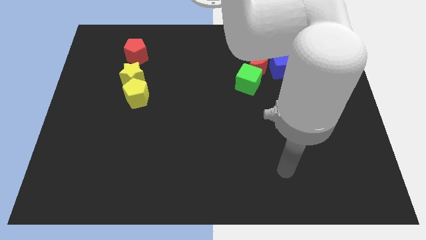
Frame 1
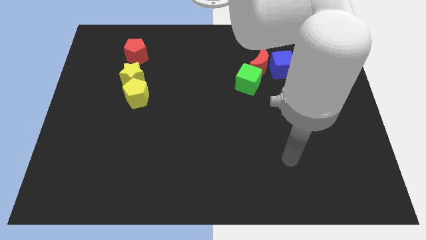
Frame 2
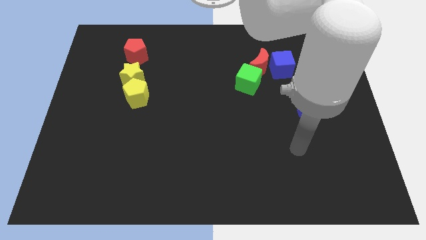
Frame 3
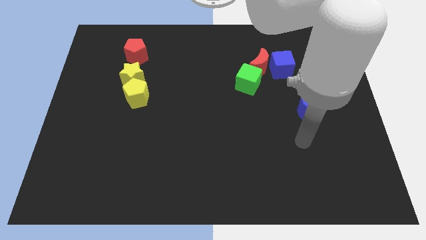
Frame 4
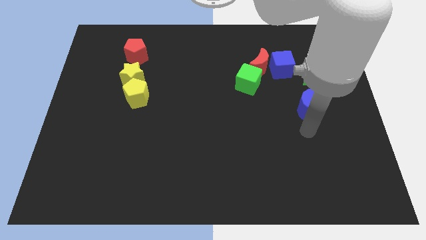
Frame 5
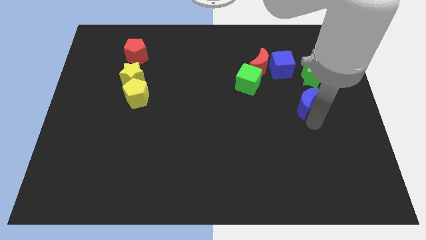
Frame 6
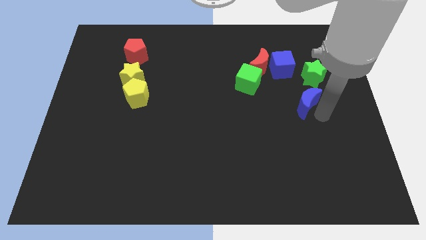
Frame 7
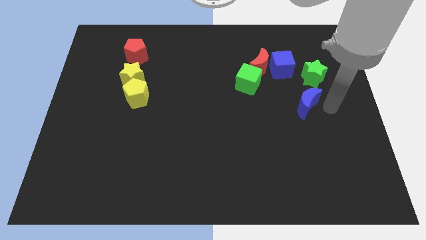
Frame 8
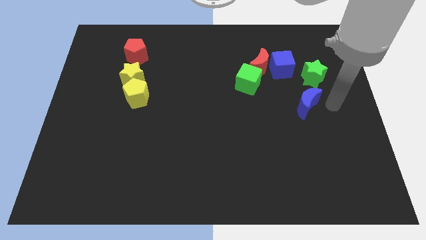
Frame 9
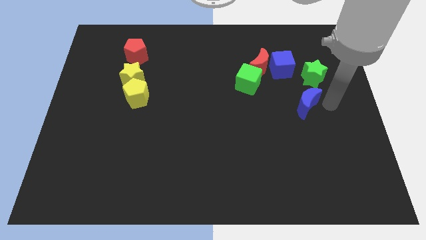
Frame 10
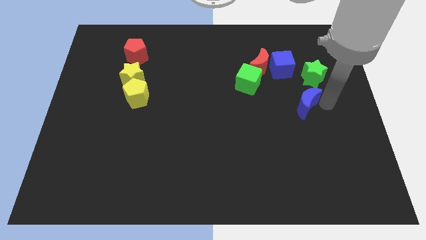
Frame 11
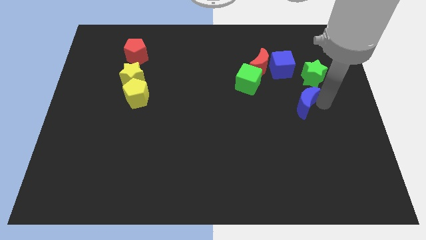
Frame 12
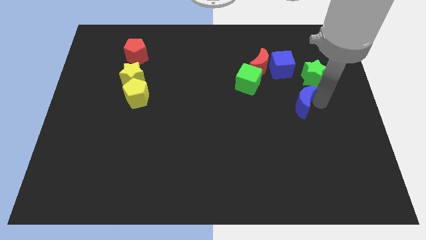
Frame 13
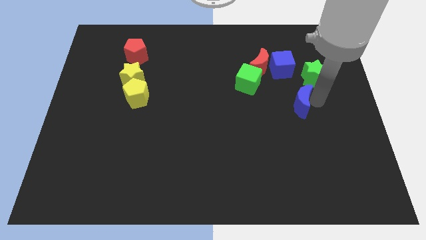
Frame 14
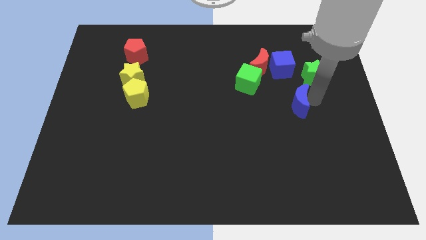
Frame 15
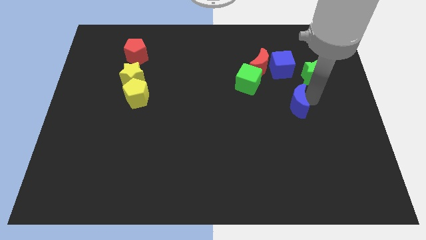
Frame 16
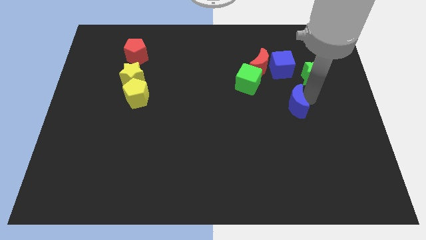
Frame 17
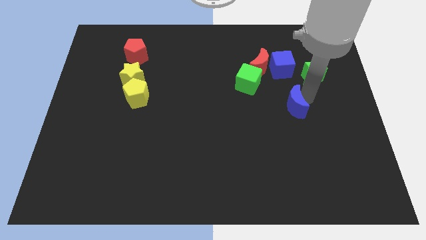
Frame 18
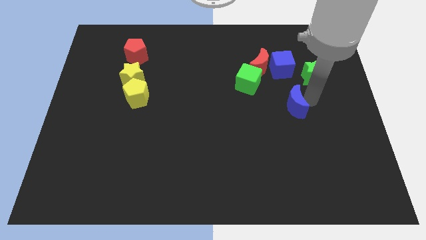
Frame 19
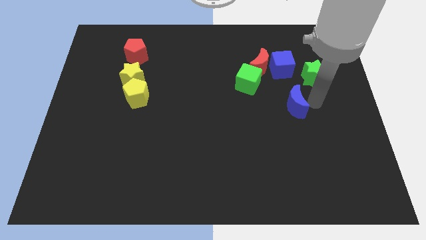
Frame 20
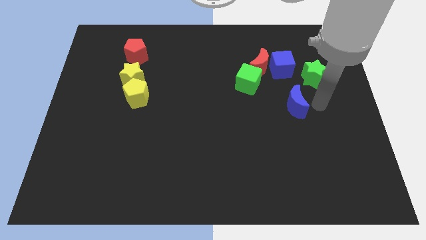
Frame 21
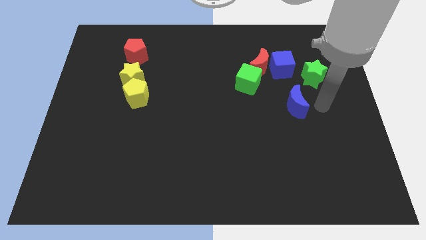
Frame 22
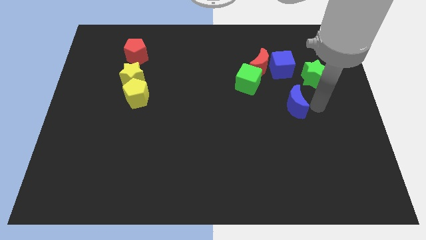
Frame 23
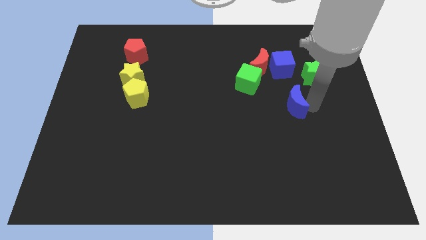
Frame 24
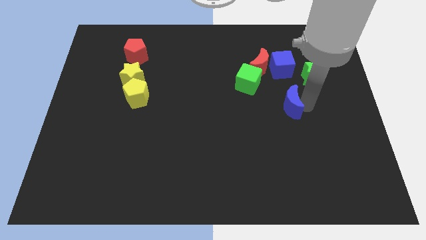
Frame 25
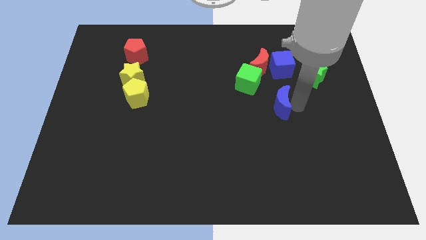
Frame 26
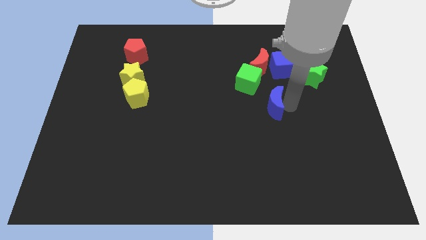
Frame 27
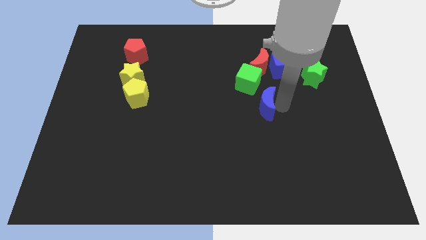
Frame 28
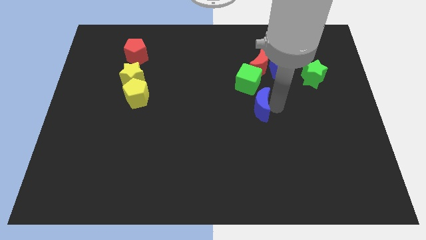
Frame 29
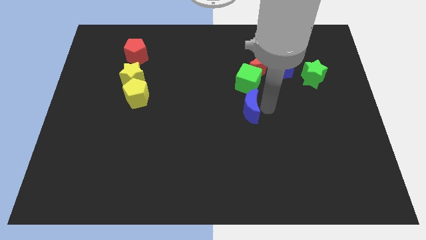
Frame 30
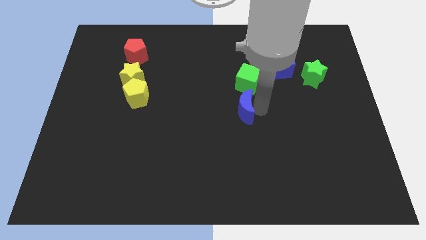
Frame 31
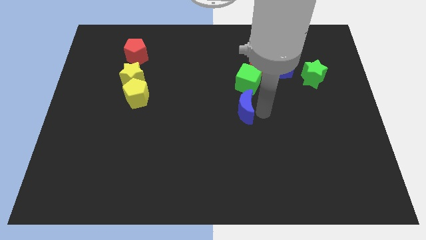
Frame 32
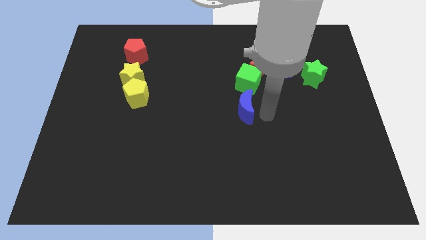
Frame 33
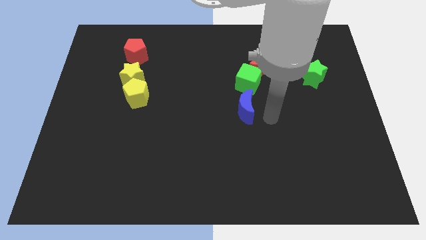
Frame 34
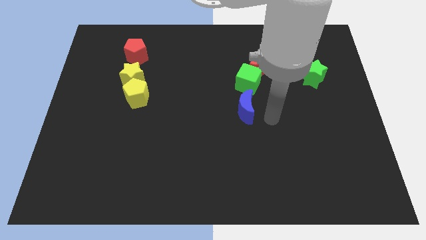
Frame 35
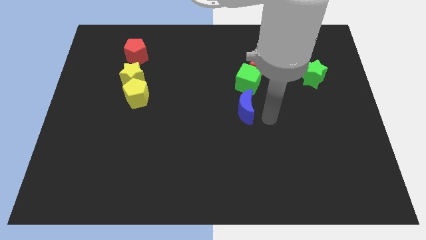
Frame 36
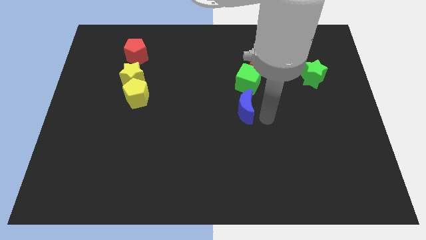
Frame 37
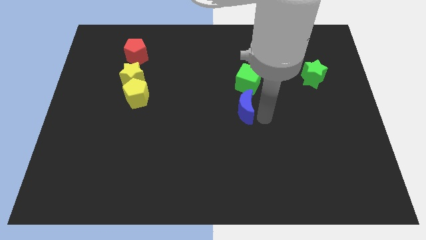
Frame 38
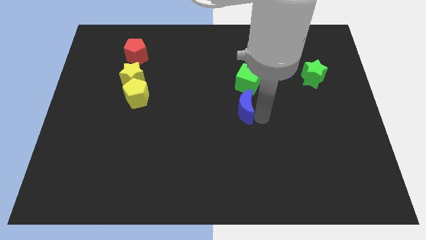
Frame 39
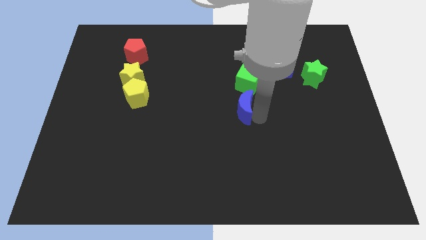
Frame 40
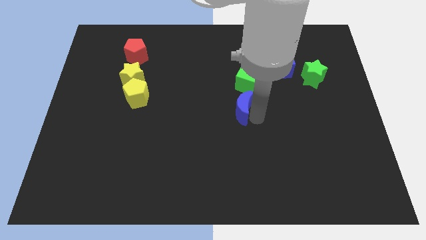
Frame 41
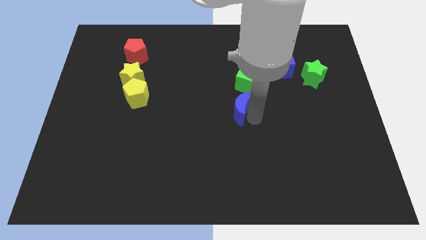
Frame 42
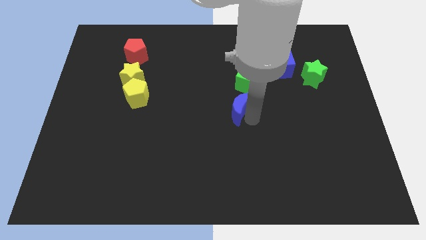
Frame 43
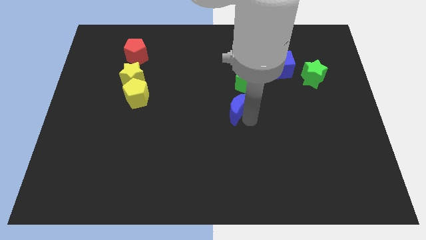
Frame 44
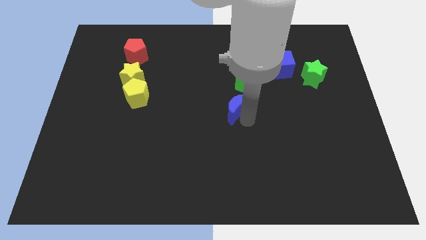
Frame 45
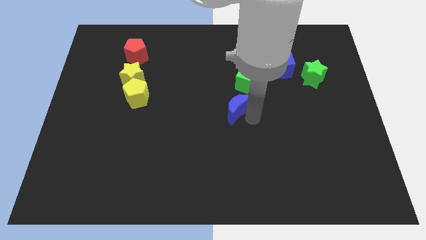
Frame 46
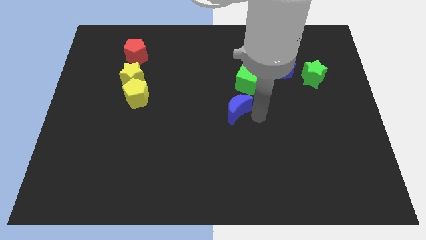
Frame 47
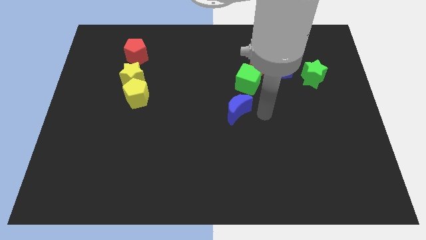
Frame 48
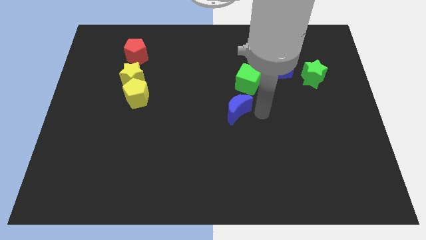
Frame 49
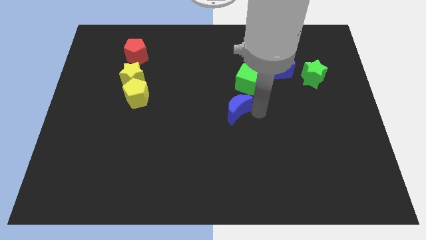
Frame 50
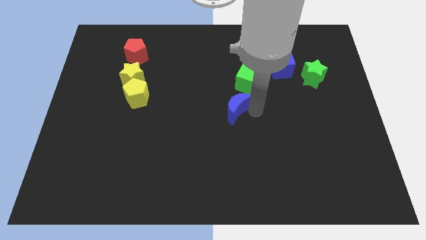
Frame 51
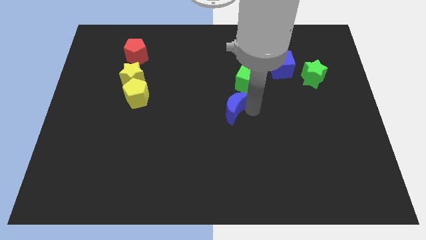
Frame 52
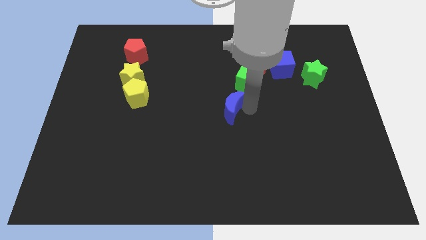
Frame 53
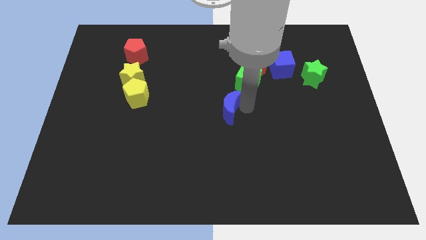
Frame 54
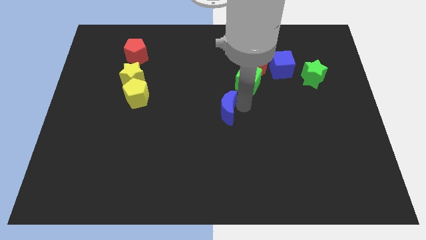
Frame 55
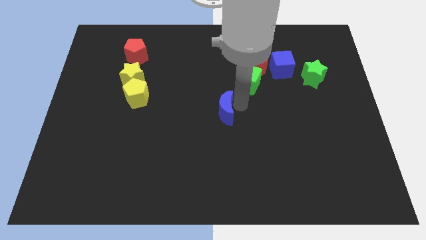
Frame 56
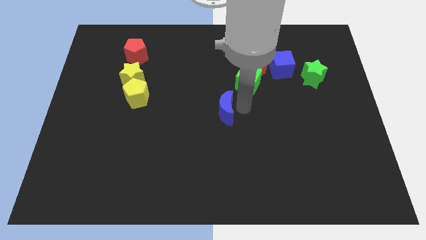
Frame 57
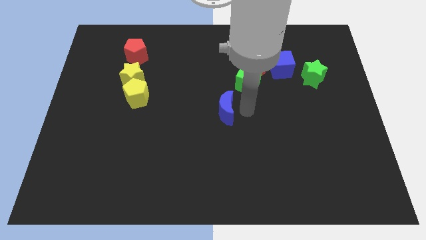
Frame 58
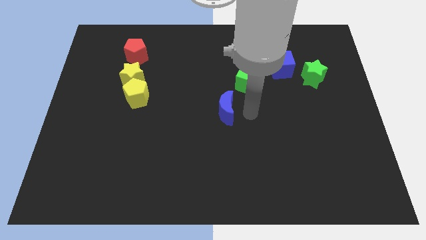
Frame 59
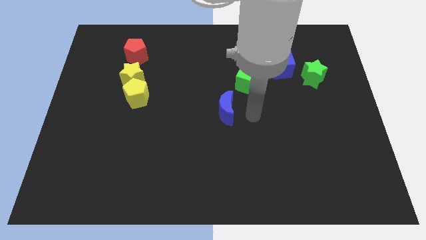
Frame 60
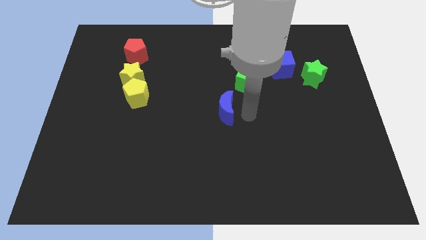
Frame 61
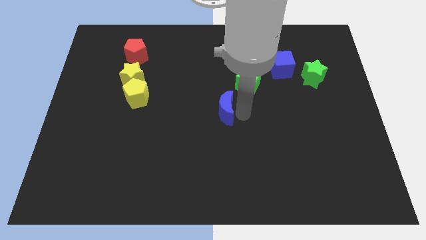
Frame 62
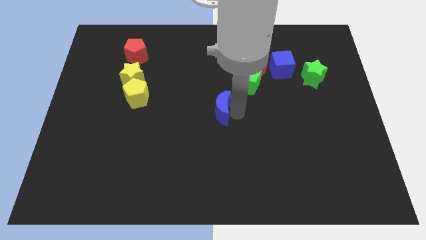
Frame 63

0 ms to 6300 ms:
push the blue moon to the left

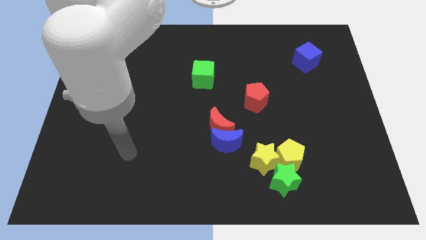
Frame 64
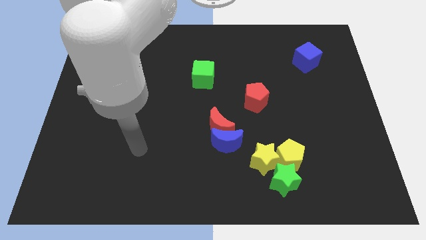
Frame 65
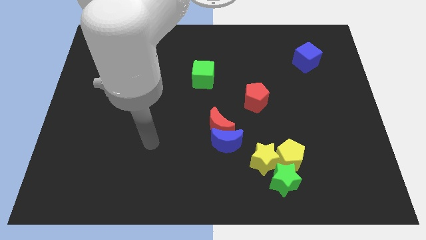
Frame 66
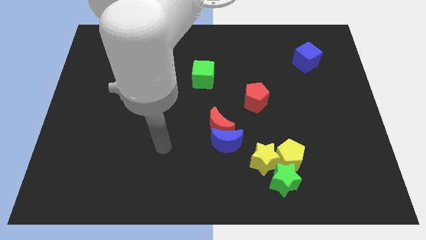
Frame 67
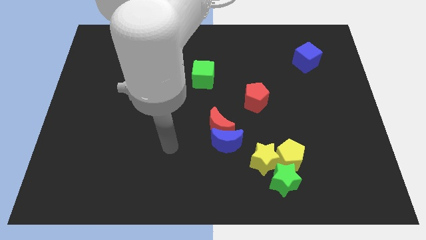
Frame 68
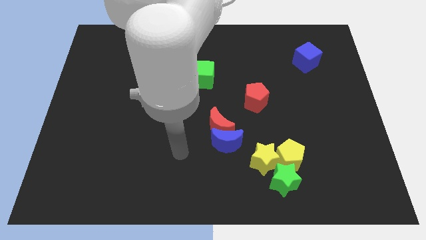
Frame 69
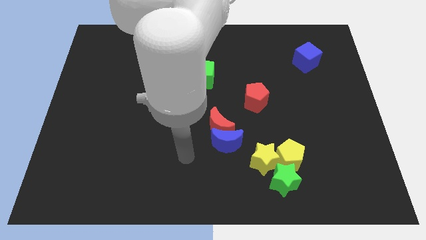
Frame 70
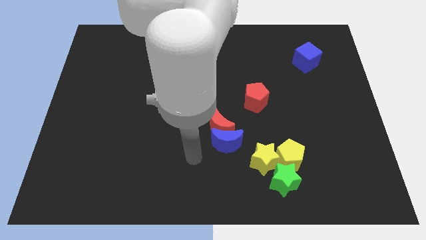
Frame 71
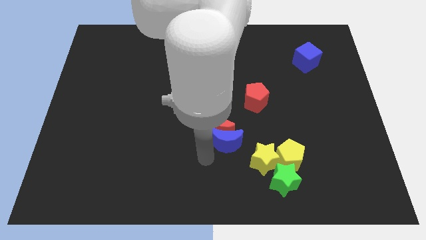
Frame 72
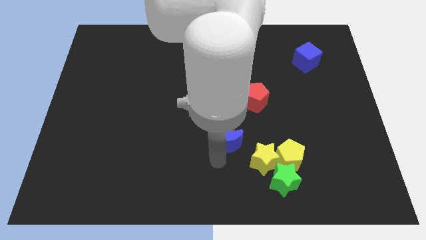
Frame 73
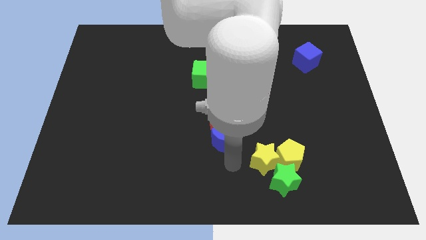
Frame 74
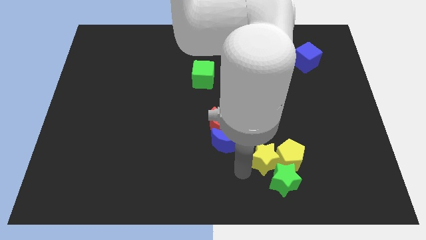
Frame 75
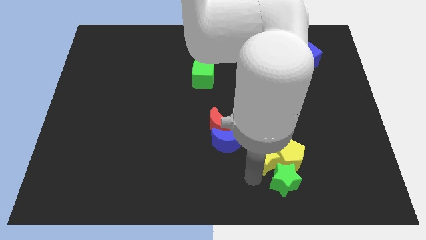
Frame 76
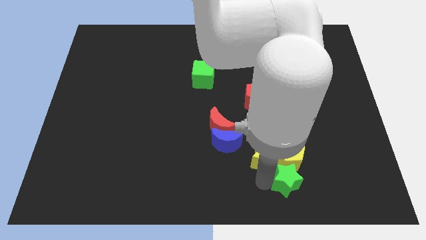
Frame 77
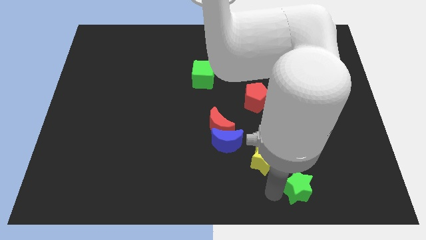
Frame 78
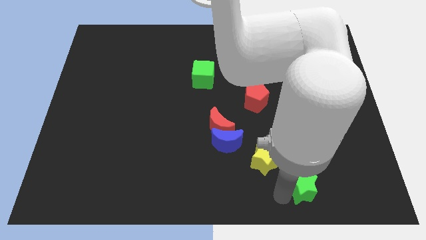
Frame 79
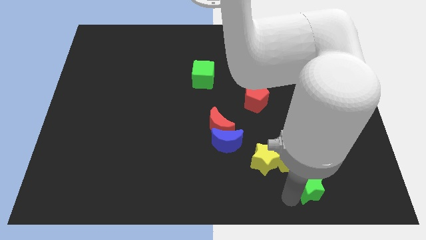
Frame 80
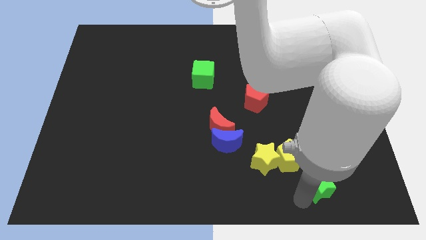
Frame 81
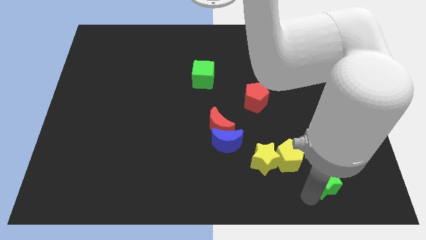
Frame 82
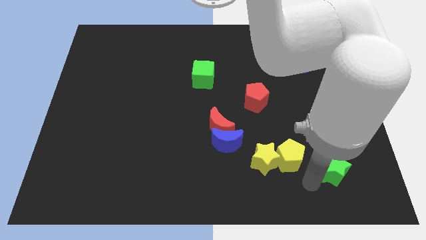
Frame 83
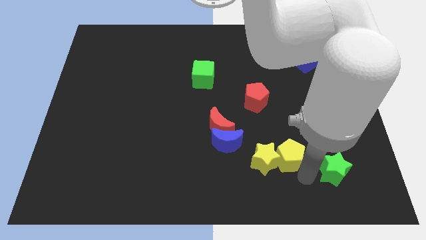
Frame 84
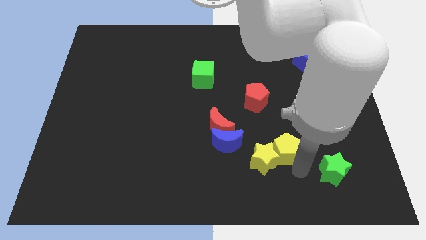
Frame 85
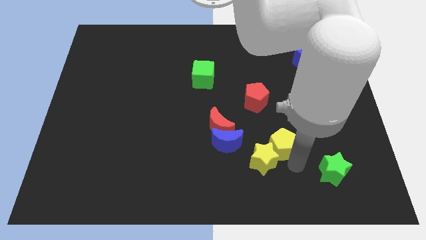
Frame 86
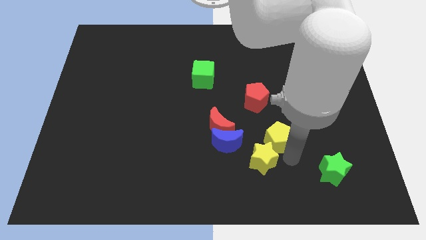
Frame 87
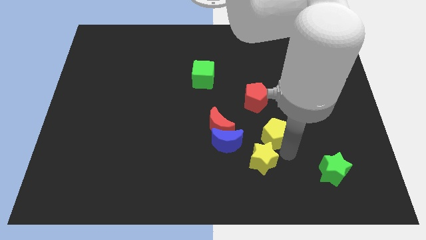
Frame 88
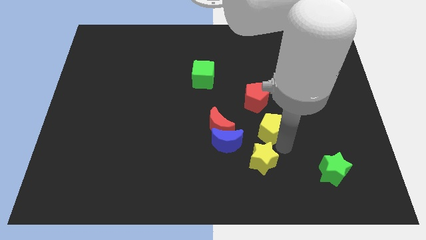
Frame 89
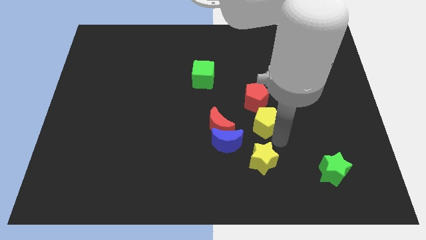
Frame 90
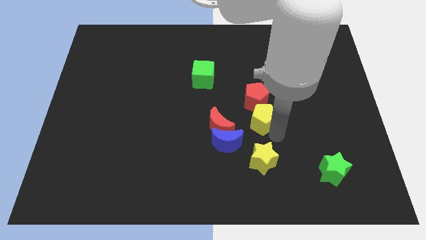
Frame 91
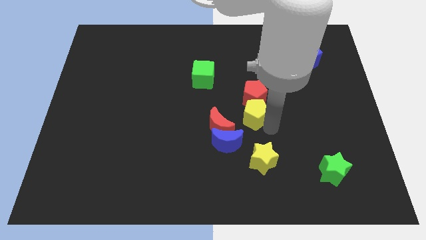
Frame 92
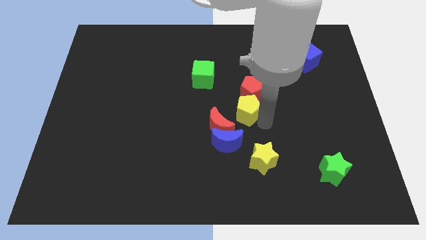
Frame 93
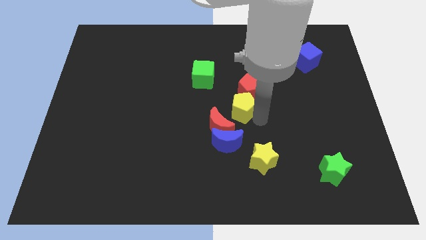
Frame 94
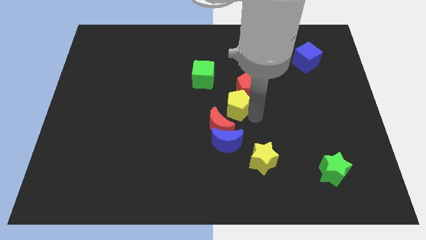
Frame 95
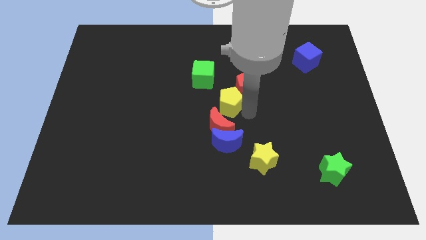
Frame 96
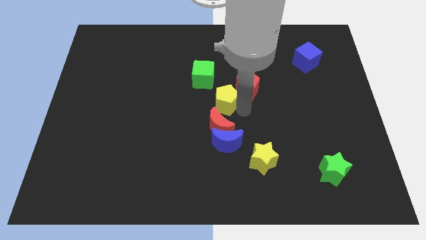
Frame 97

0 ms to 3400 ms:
slide the yellow pentagon up and left diagonally
